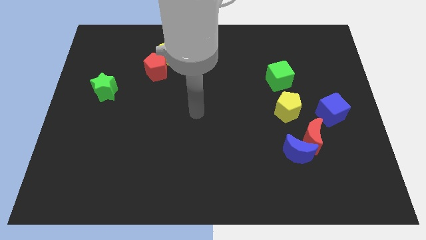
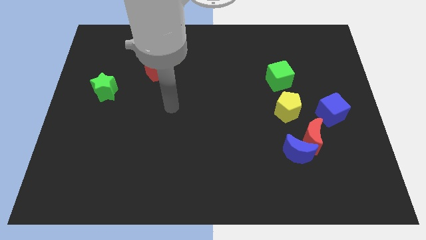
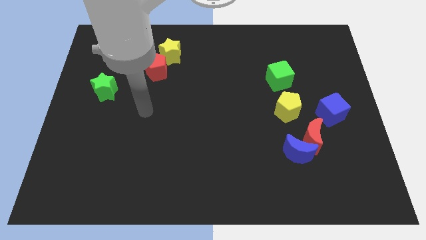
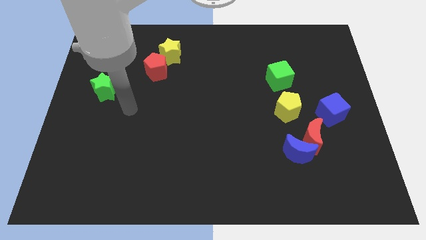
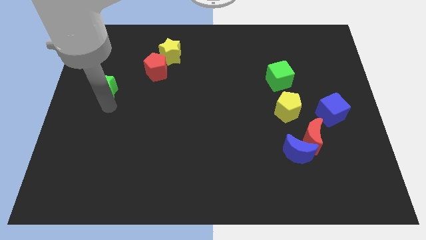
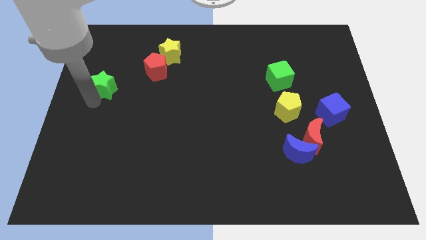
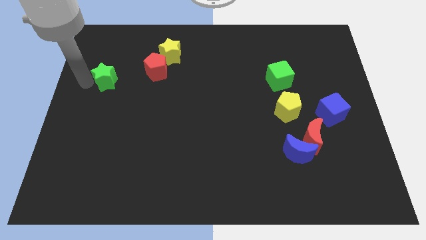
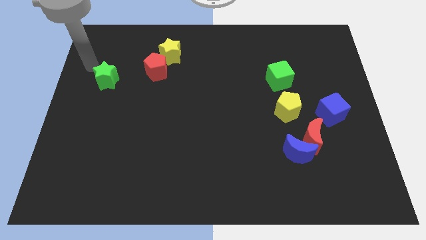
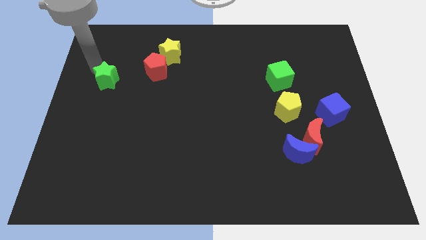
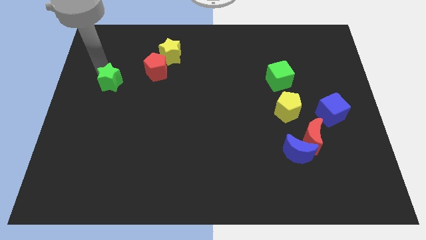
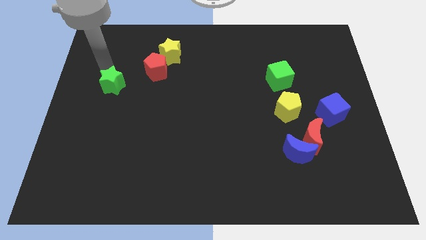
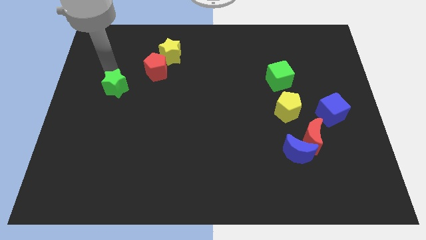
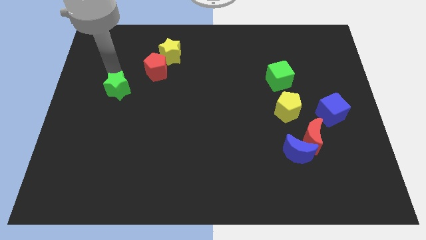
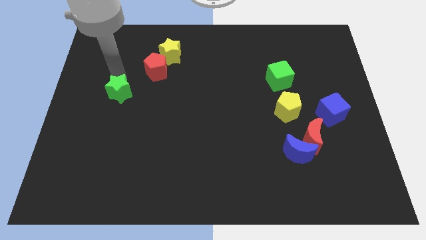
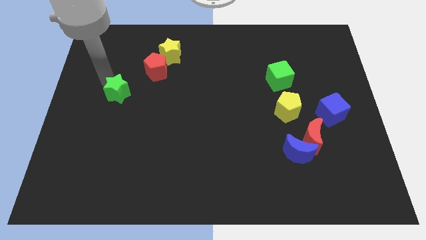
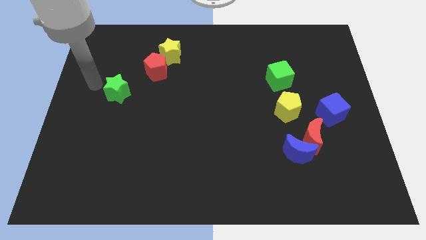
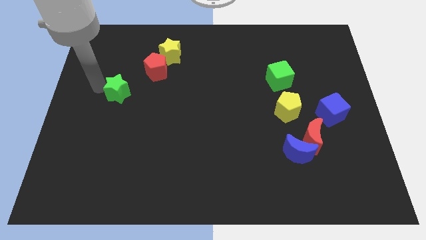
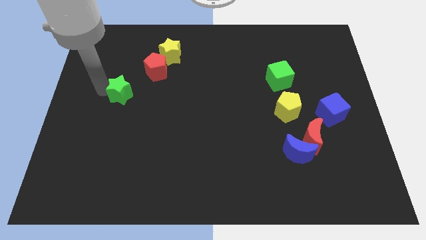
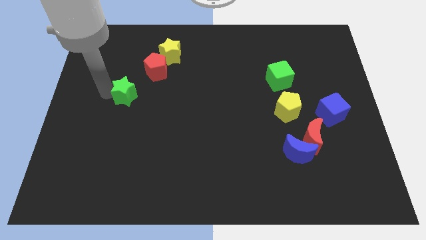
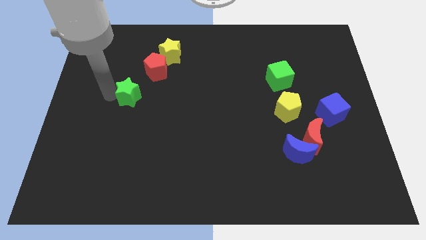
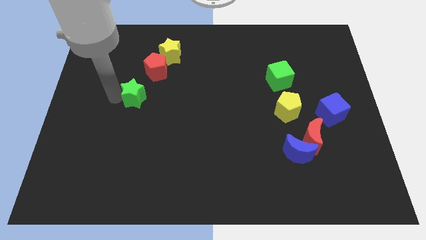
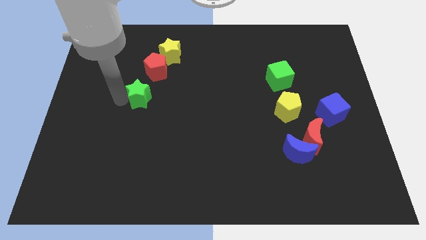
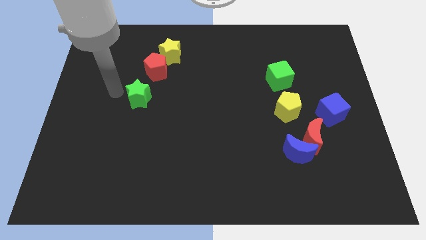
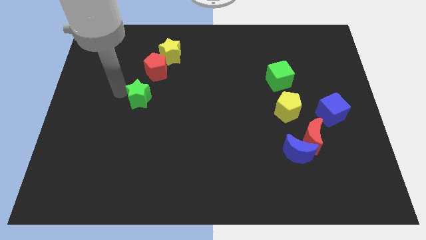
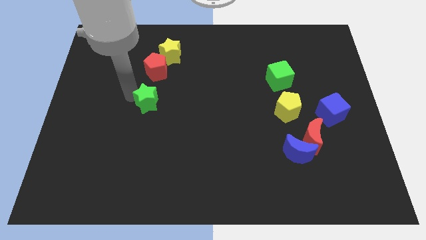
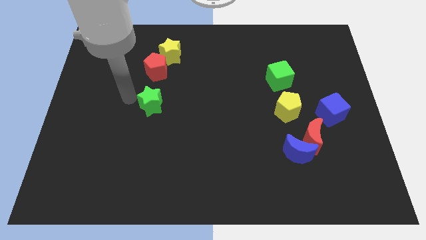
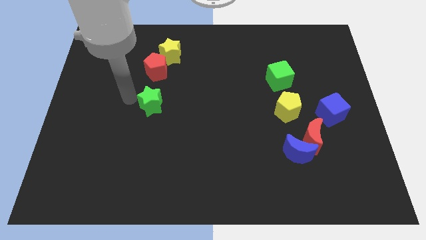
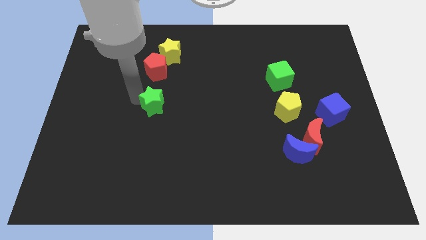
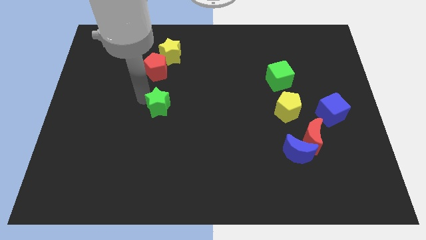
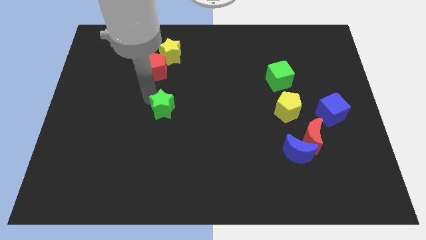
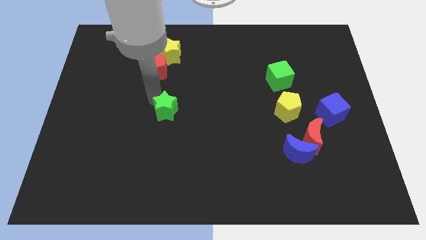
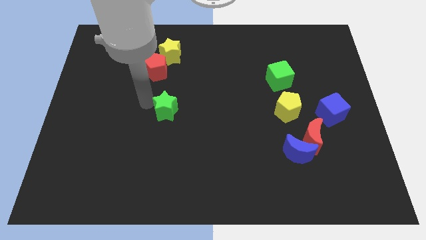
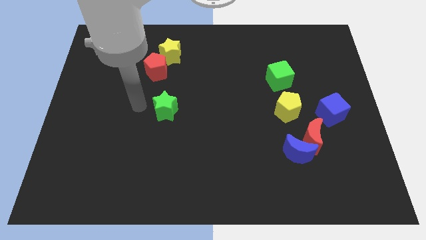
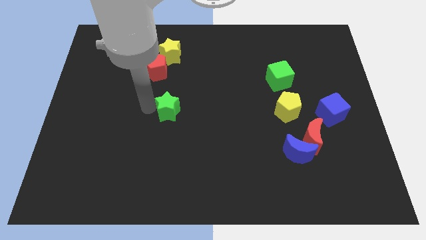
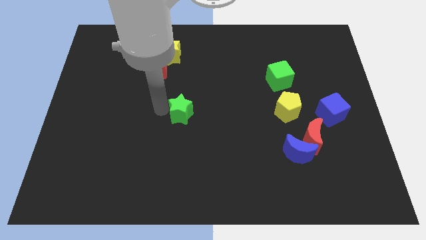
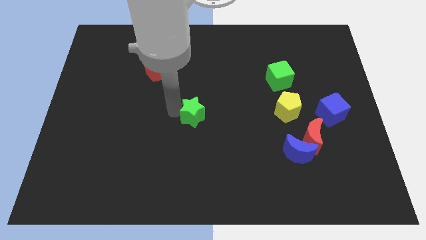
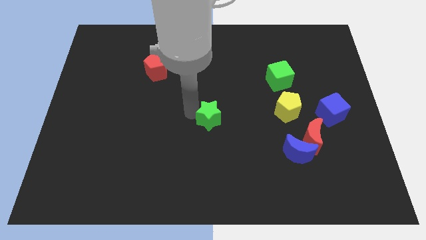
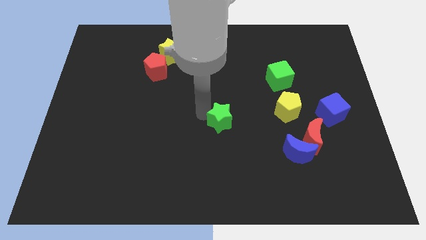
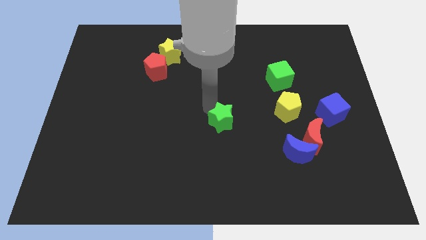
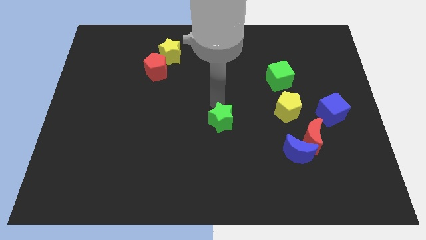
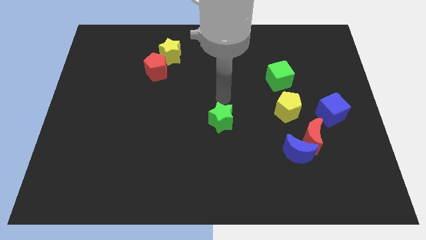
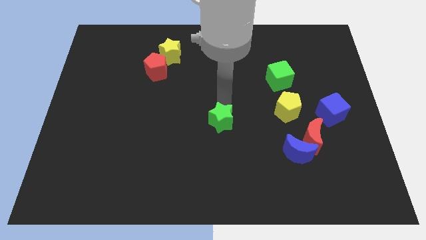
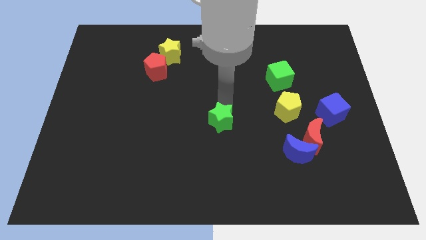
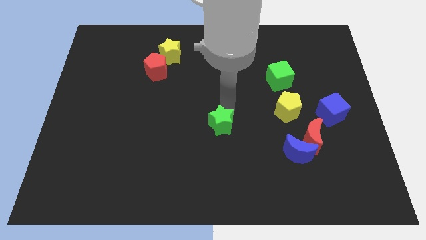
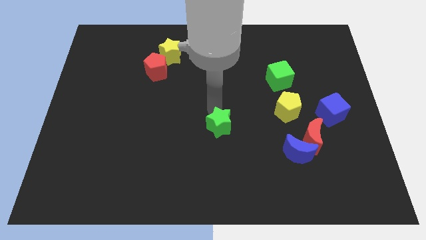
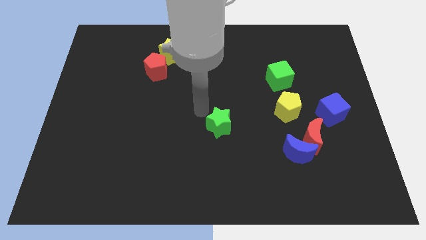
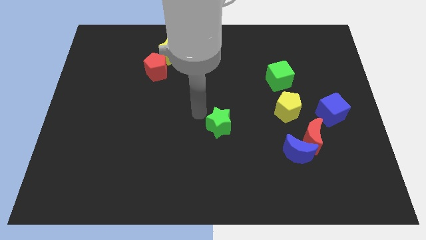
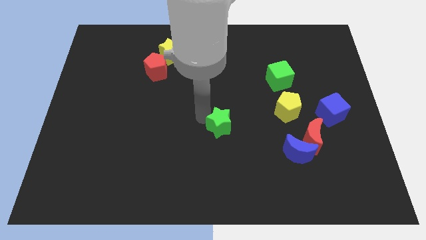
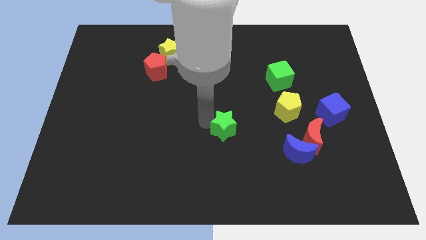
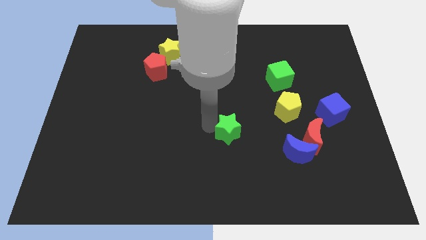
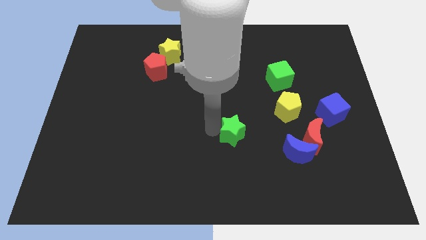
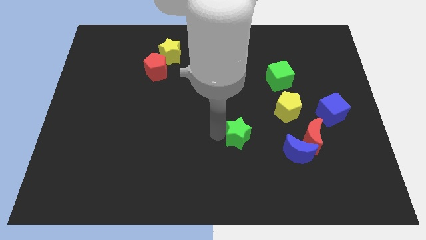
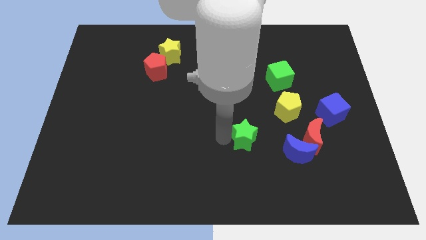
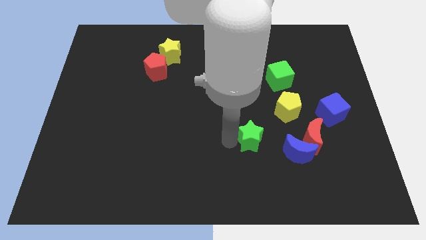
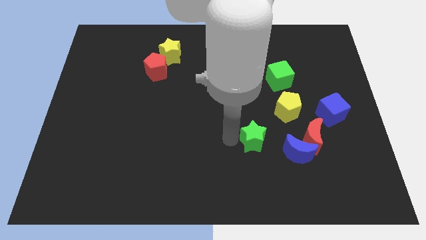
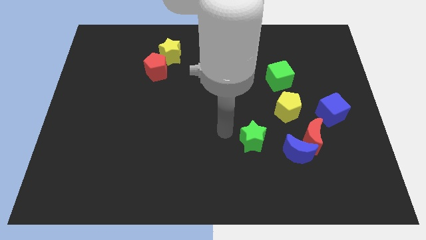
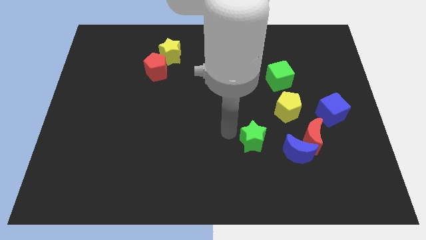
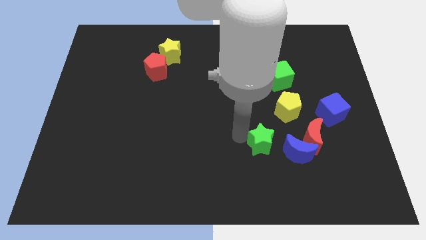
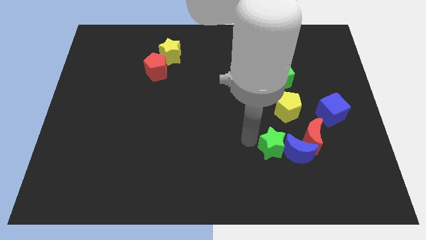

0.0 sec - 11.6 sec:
push the green star close to the blue moon

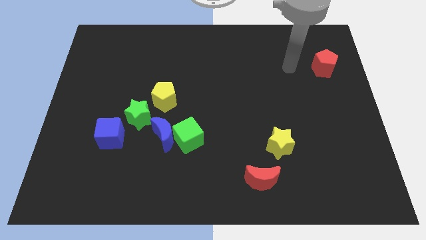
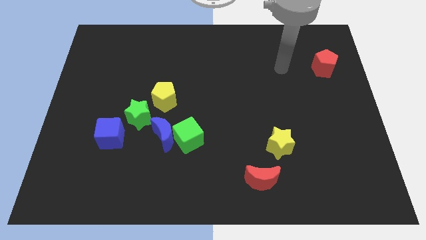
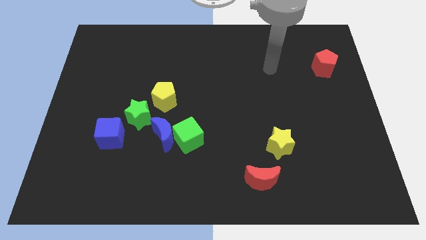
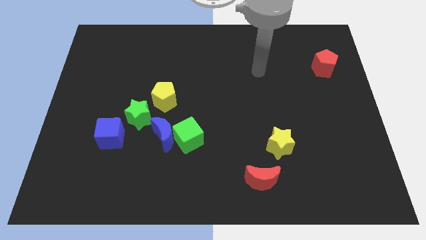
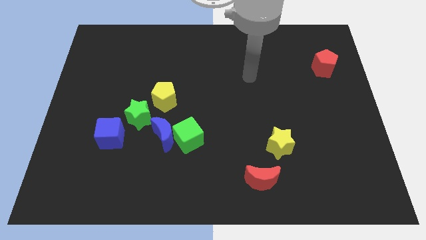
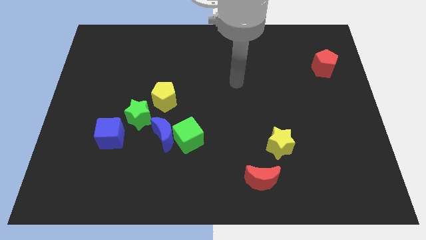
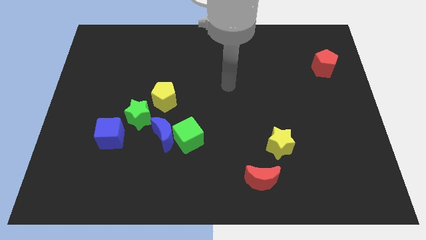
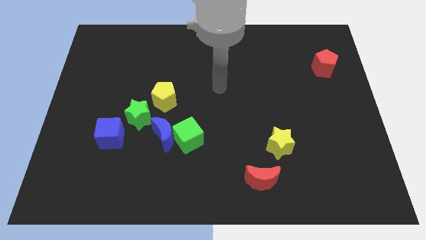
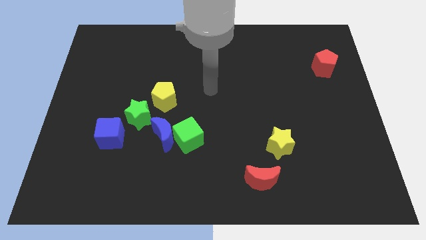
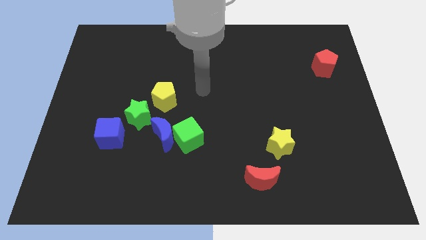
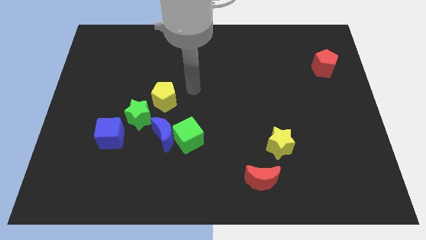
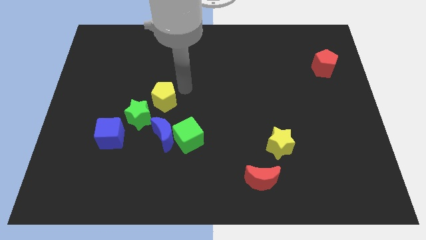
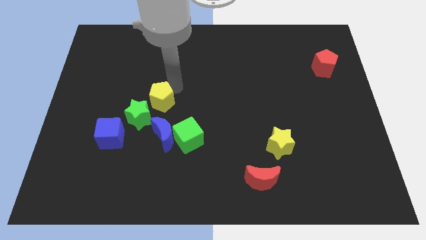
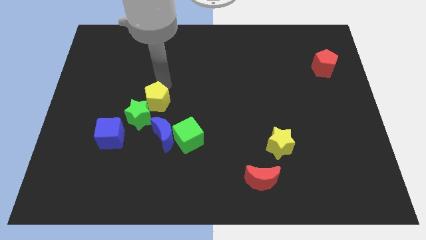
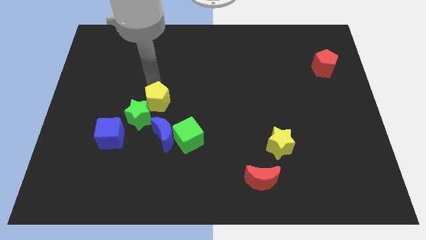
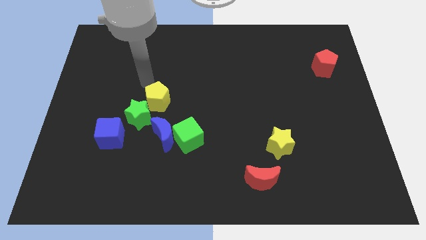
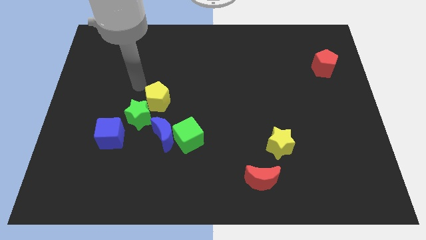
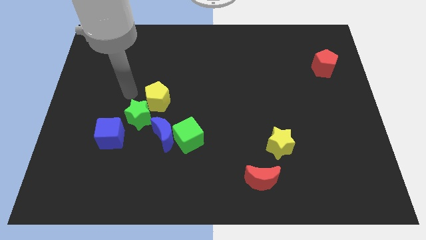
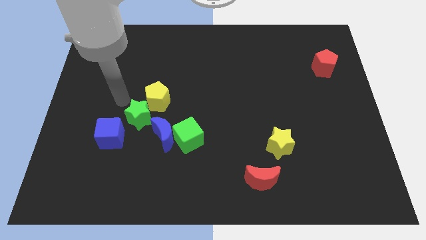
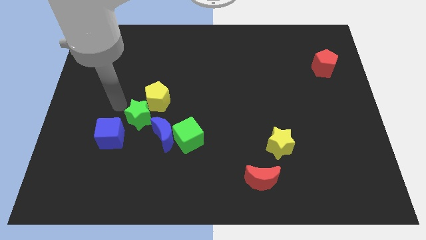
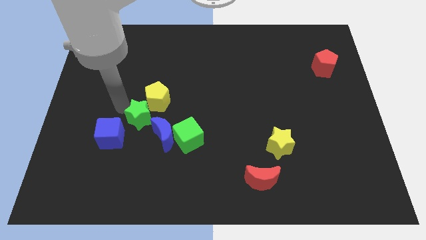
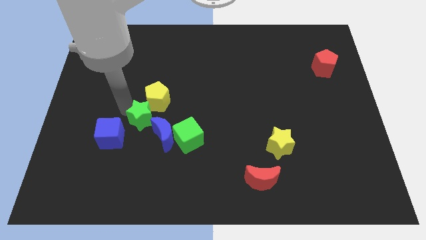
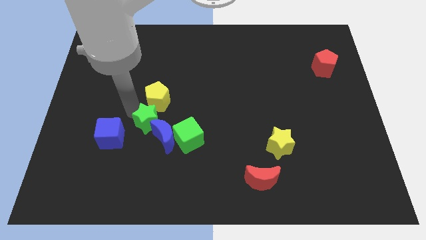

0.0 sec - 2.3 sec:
move the green star close to the blue moon
